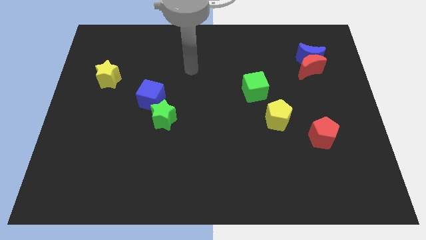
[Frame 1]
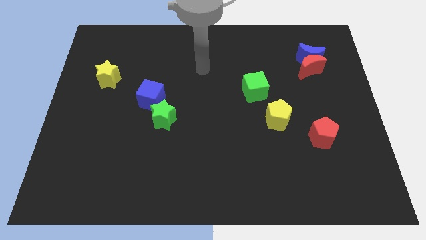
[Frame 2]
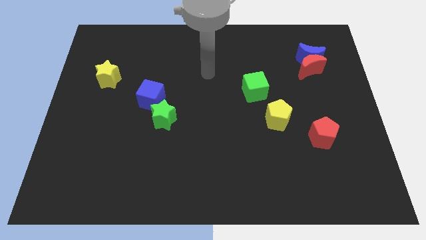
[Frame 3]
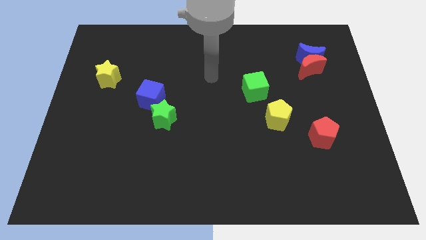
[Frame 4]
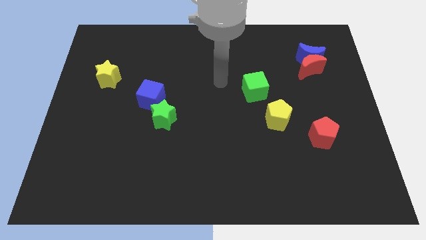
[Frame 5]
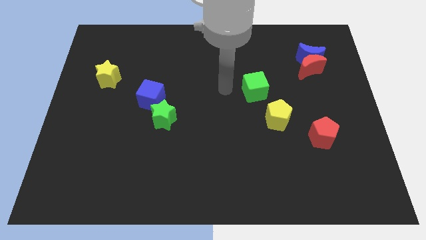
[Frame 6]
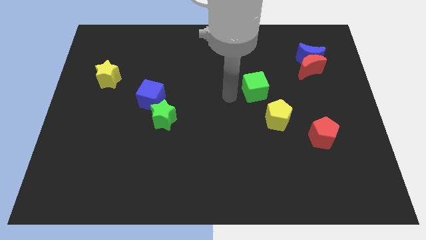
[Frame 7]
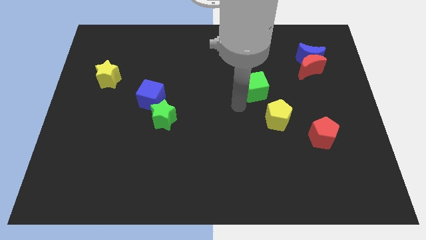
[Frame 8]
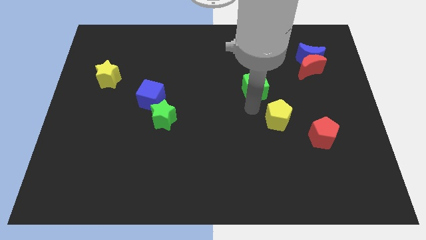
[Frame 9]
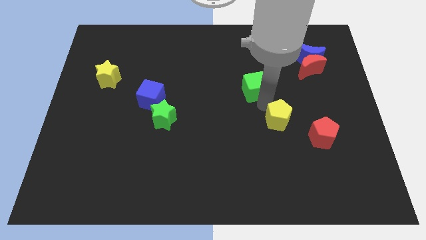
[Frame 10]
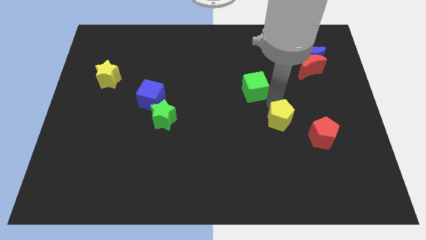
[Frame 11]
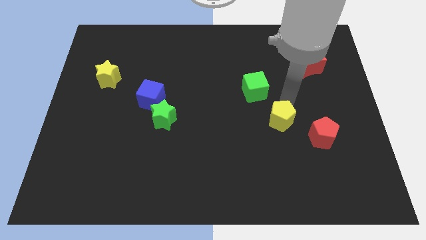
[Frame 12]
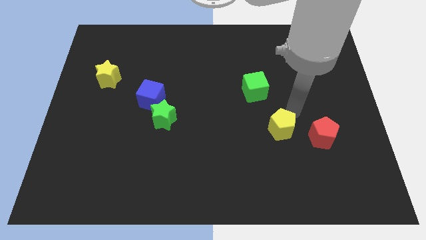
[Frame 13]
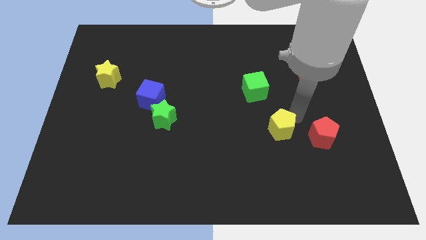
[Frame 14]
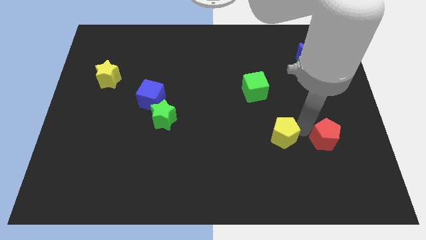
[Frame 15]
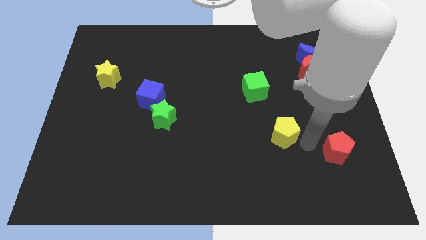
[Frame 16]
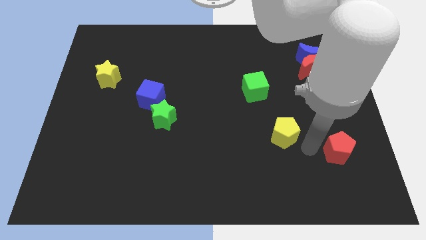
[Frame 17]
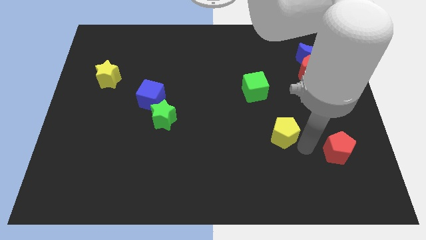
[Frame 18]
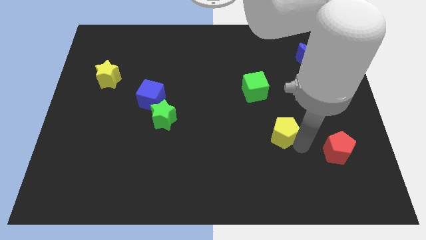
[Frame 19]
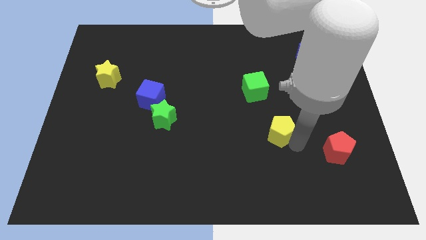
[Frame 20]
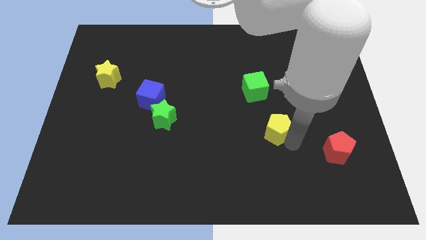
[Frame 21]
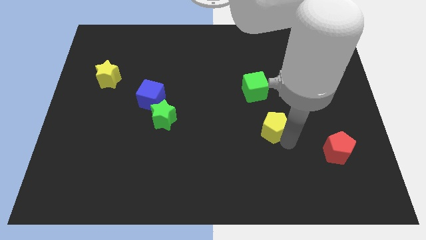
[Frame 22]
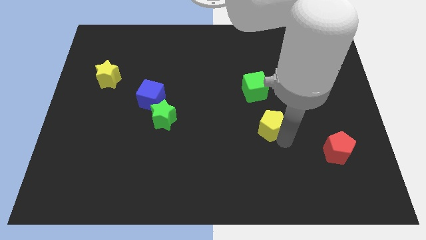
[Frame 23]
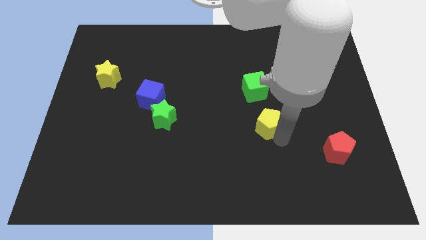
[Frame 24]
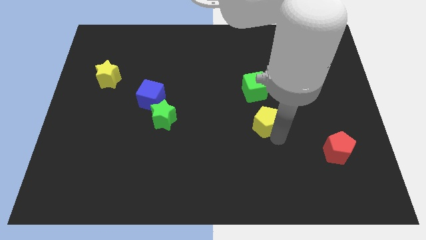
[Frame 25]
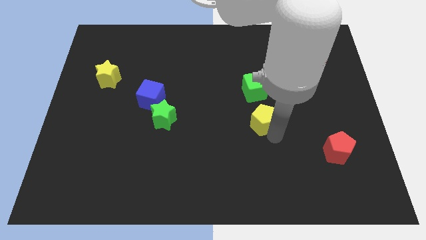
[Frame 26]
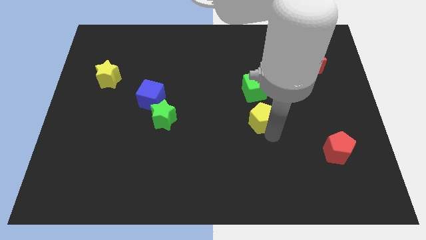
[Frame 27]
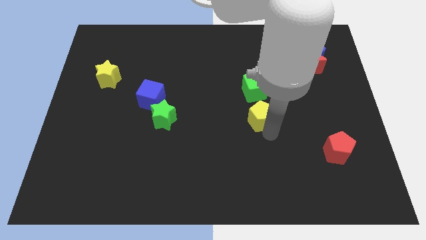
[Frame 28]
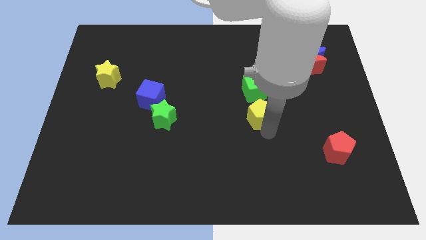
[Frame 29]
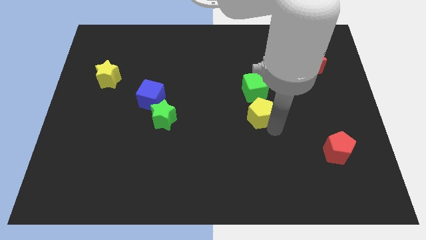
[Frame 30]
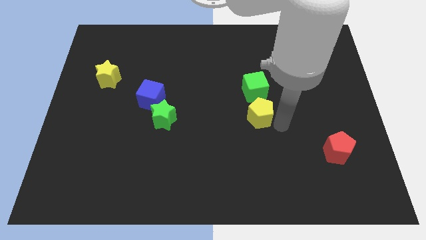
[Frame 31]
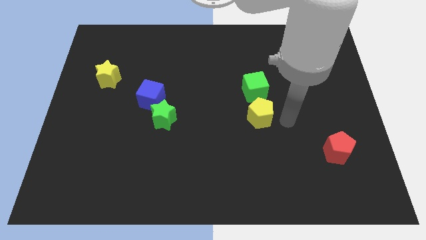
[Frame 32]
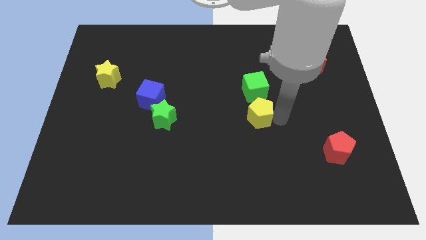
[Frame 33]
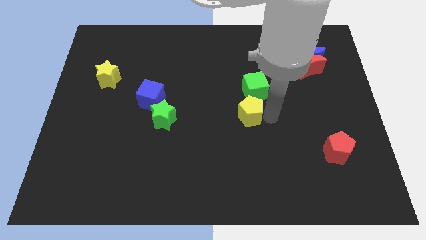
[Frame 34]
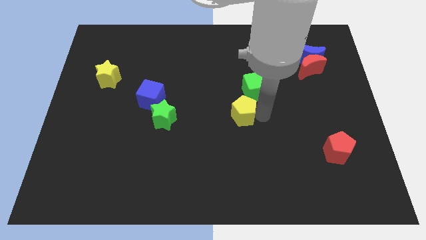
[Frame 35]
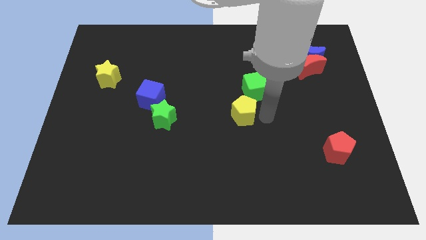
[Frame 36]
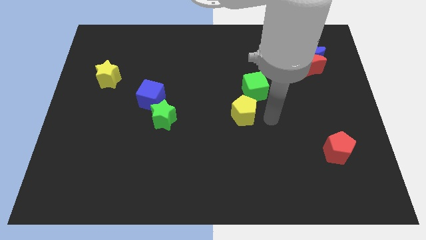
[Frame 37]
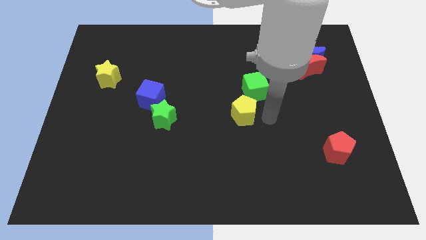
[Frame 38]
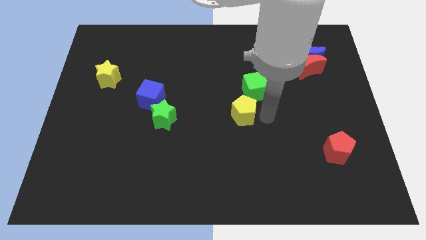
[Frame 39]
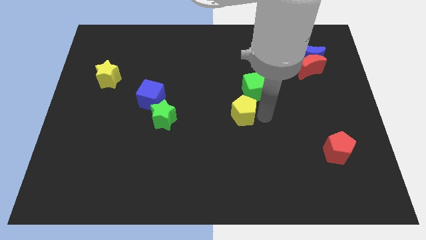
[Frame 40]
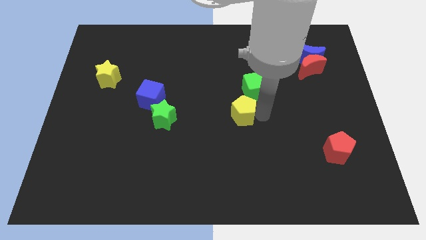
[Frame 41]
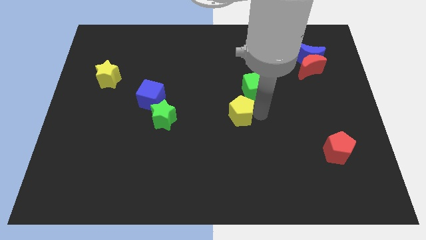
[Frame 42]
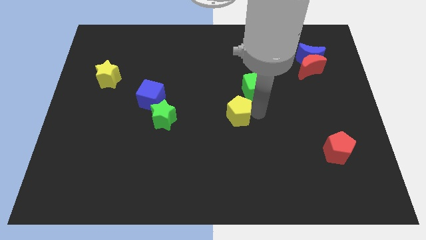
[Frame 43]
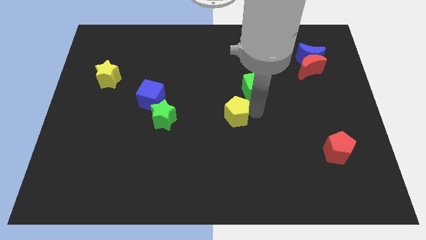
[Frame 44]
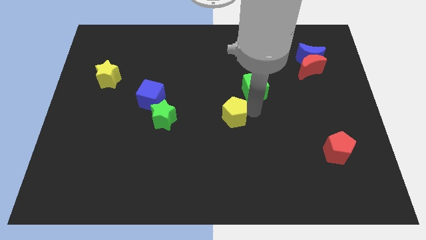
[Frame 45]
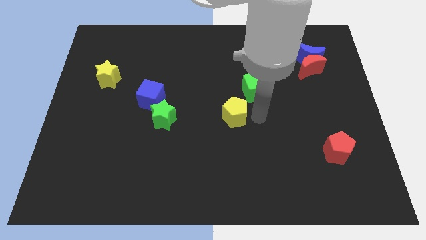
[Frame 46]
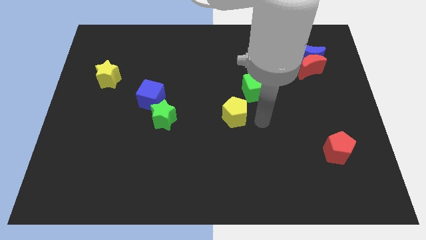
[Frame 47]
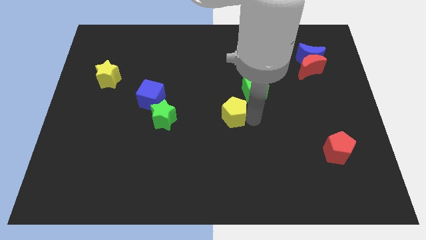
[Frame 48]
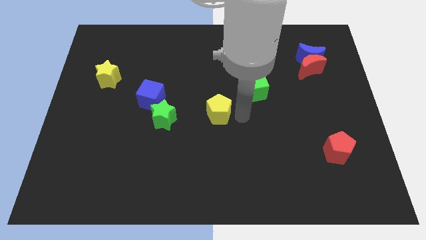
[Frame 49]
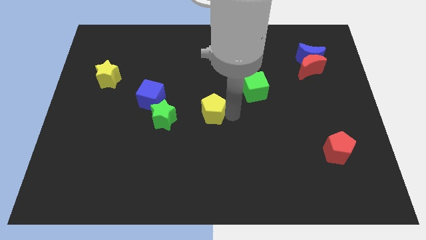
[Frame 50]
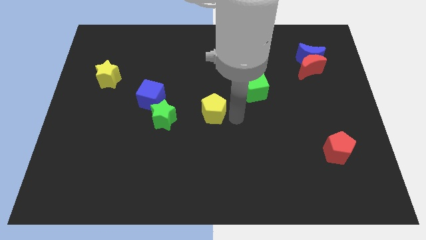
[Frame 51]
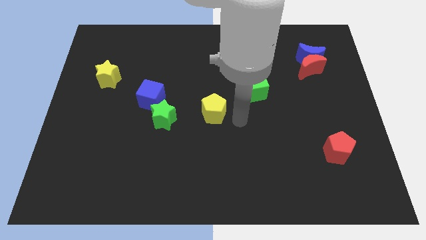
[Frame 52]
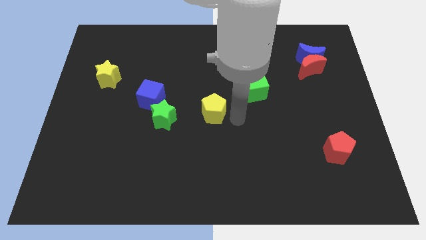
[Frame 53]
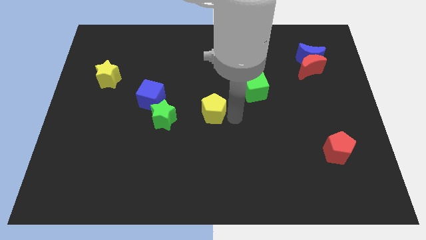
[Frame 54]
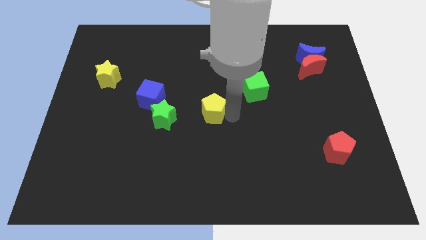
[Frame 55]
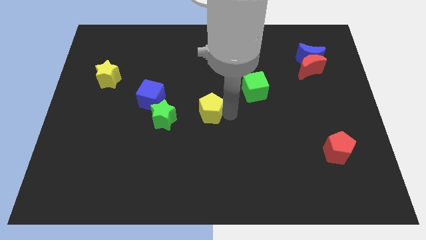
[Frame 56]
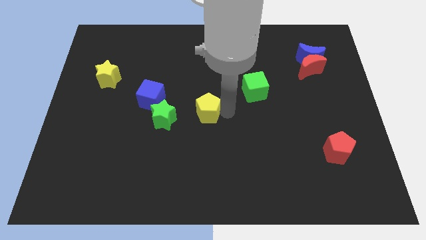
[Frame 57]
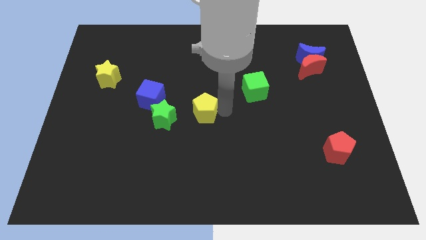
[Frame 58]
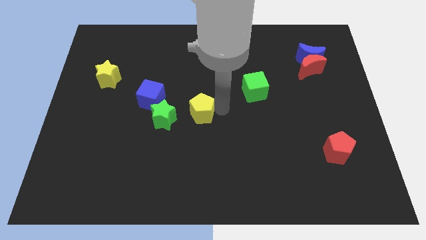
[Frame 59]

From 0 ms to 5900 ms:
put the yellow pentagon diagonally up and to the right of the green star
